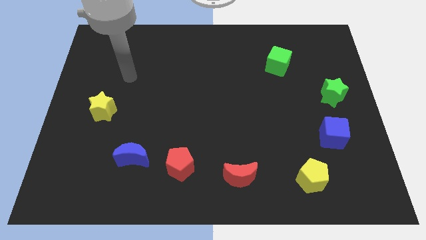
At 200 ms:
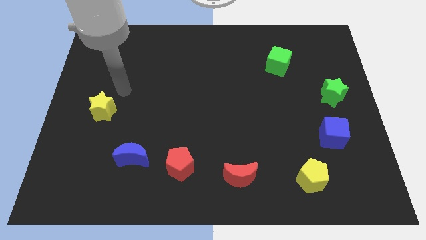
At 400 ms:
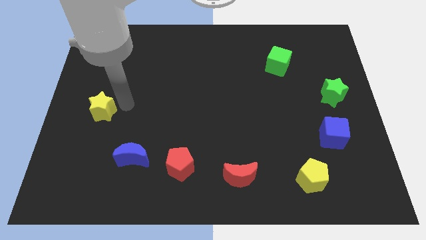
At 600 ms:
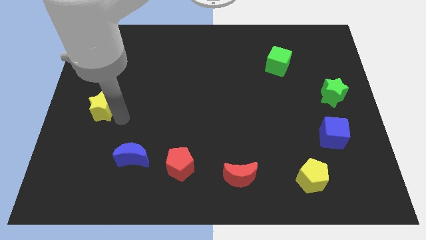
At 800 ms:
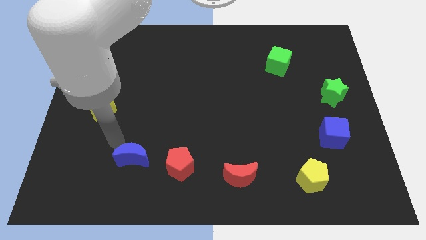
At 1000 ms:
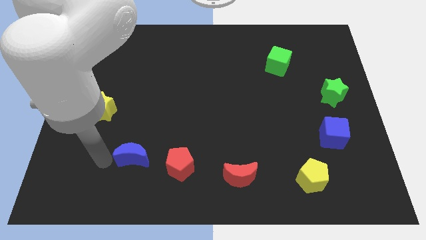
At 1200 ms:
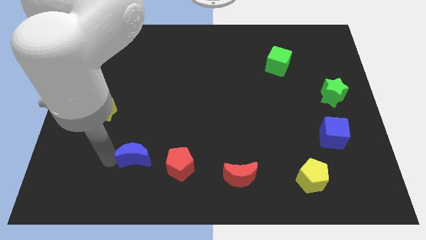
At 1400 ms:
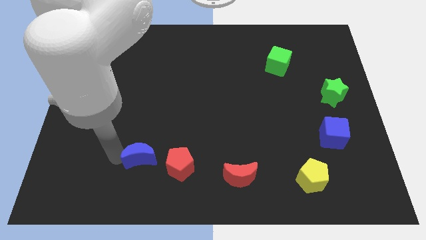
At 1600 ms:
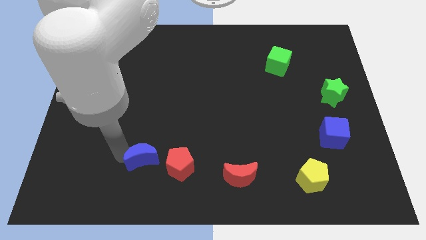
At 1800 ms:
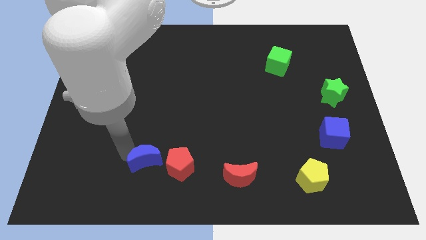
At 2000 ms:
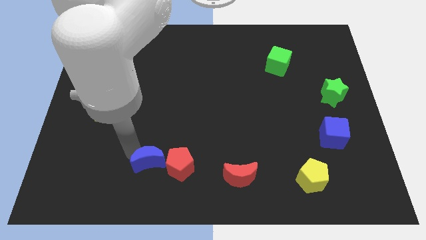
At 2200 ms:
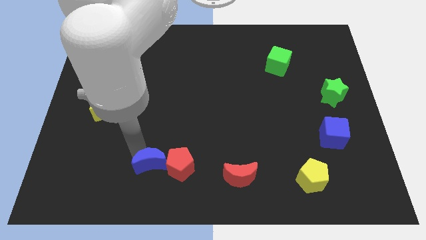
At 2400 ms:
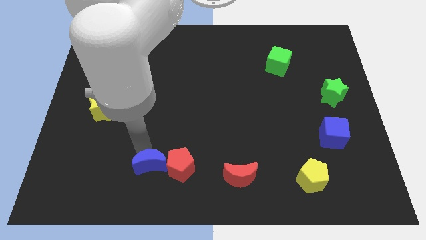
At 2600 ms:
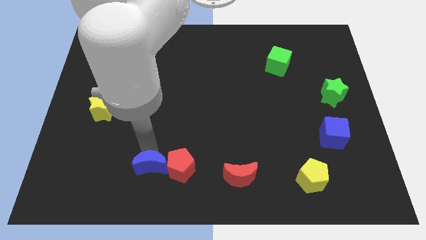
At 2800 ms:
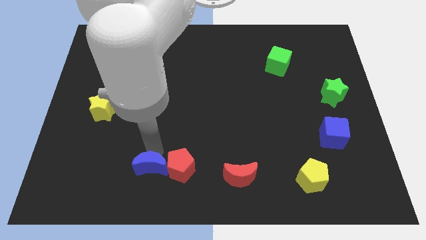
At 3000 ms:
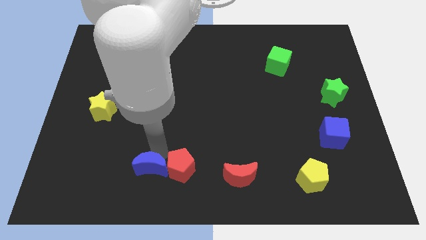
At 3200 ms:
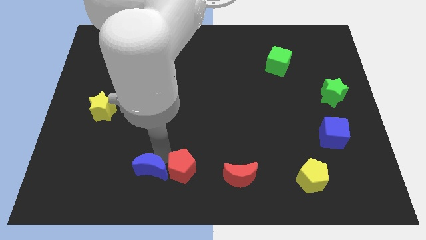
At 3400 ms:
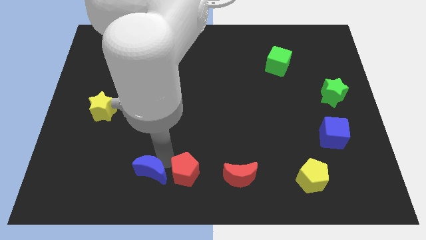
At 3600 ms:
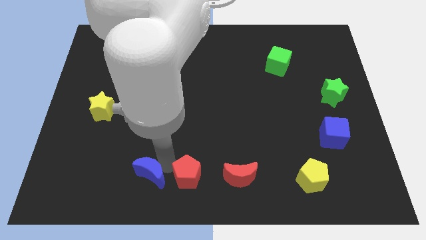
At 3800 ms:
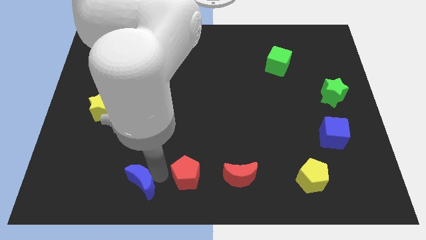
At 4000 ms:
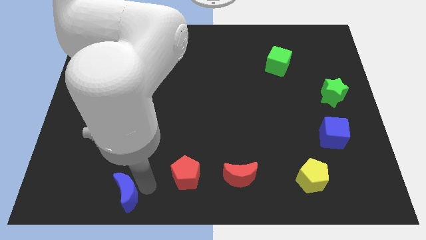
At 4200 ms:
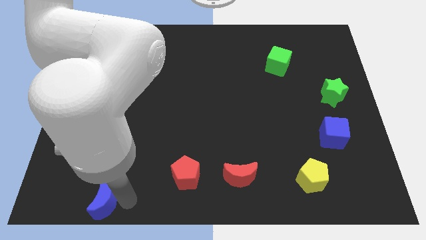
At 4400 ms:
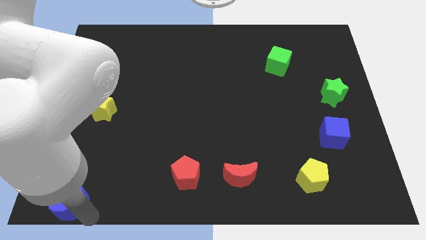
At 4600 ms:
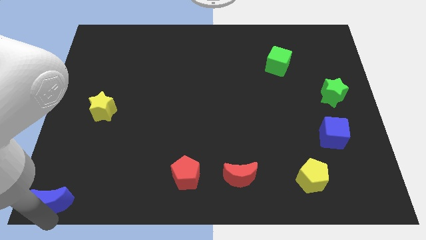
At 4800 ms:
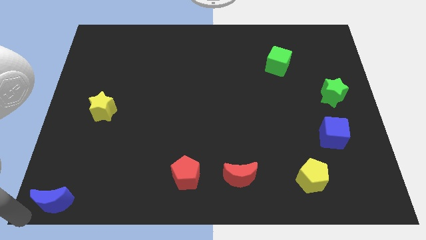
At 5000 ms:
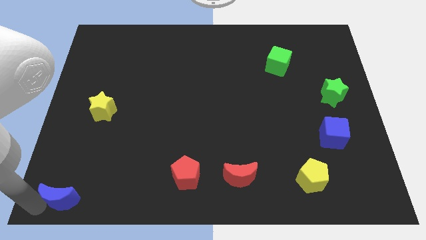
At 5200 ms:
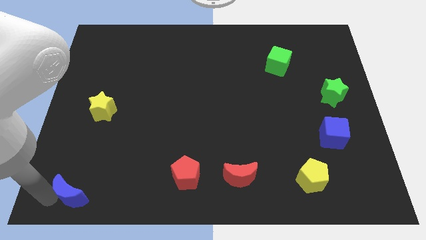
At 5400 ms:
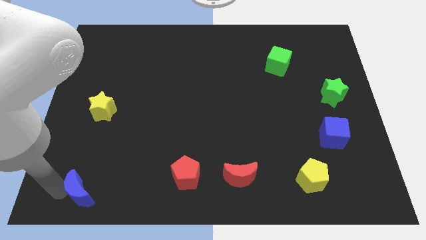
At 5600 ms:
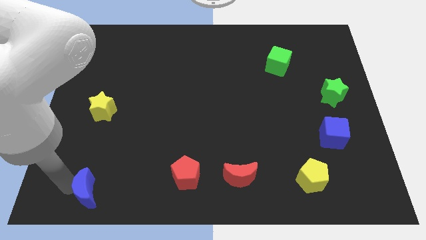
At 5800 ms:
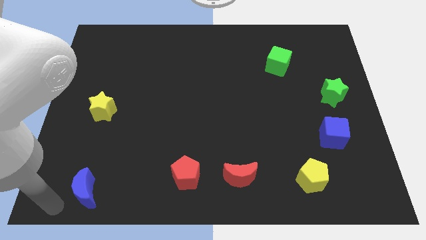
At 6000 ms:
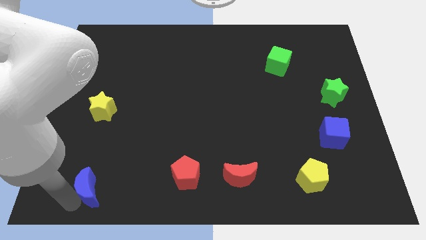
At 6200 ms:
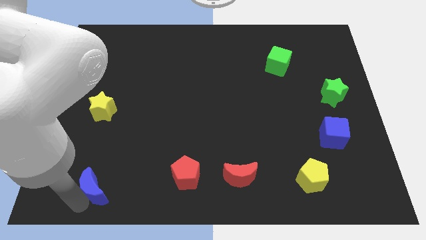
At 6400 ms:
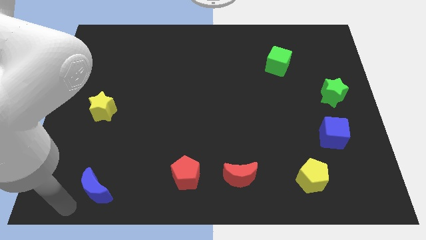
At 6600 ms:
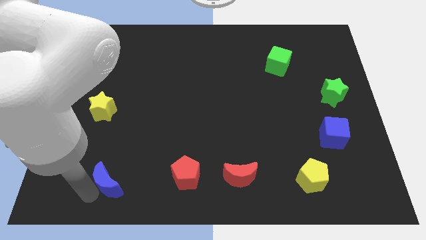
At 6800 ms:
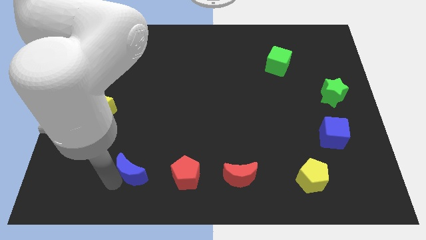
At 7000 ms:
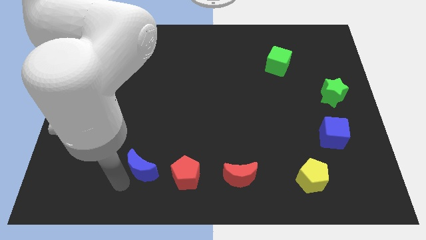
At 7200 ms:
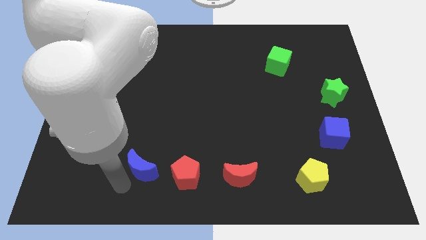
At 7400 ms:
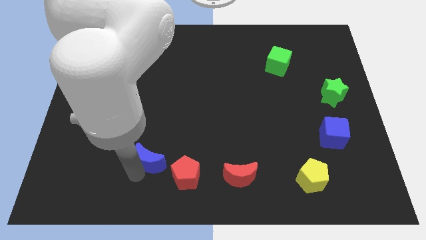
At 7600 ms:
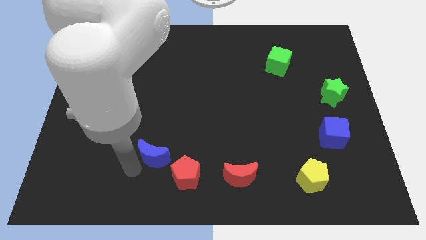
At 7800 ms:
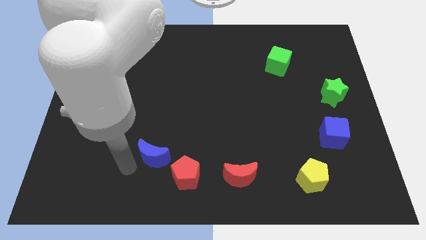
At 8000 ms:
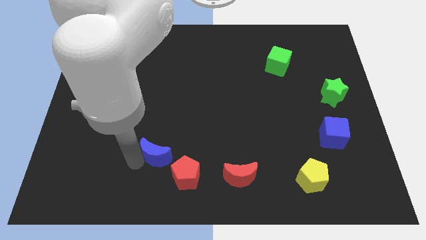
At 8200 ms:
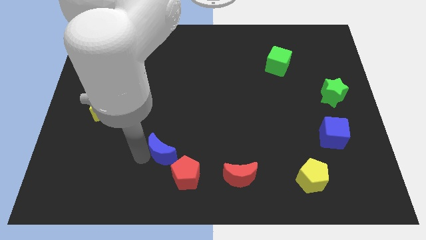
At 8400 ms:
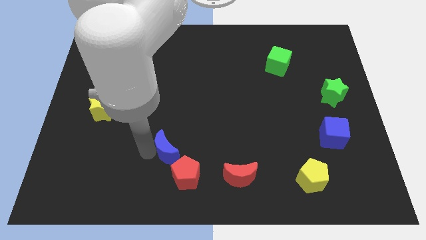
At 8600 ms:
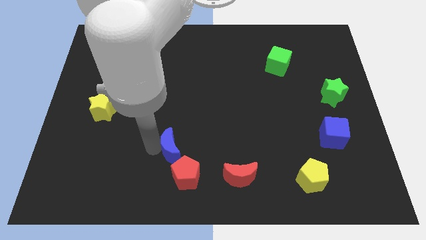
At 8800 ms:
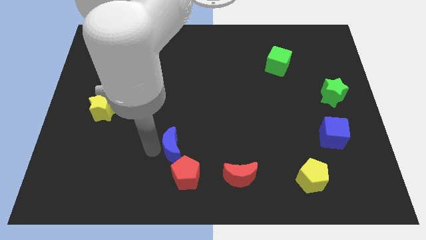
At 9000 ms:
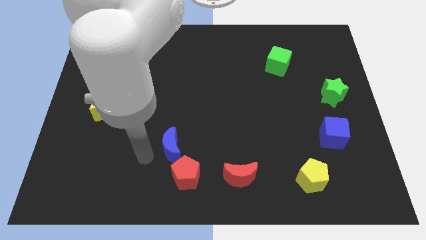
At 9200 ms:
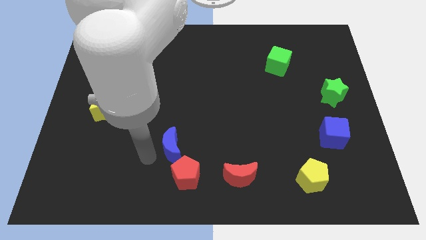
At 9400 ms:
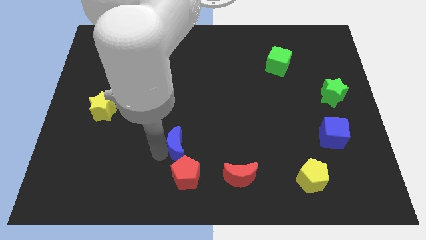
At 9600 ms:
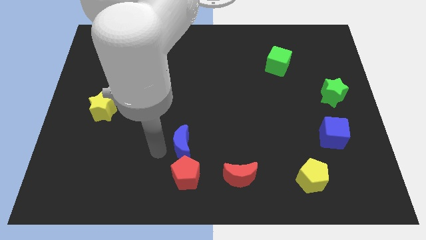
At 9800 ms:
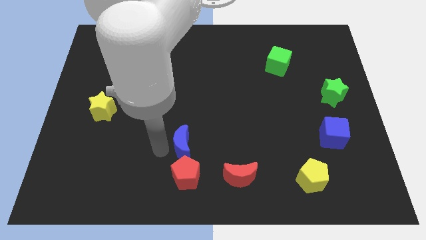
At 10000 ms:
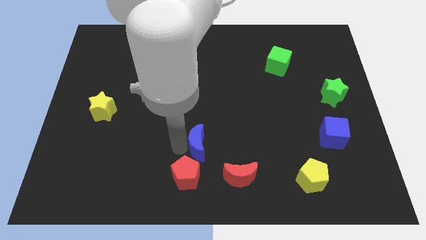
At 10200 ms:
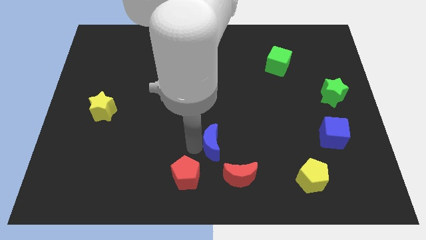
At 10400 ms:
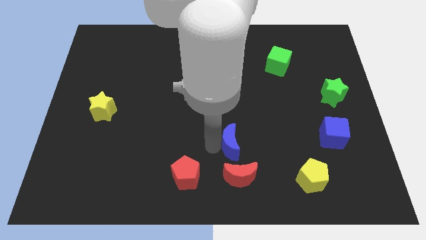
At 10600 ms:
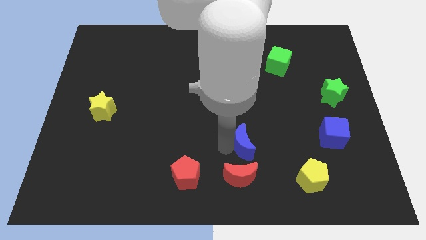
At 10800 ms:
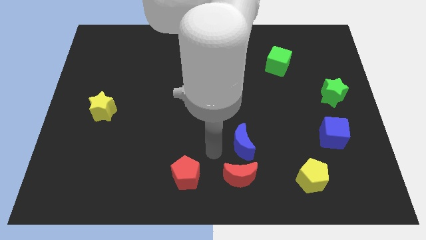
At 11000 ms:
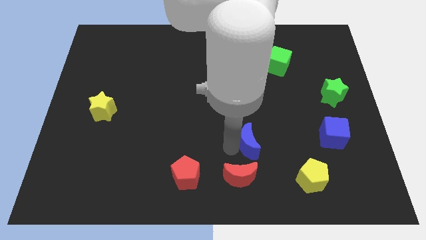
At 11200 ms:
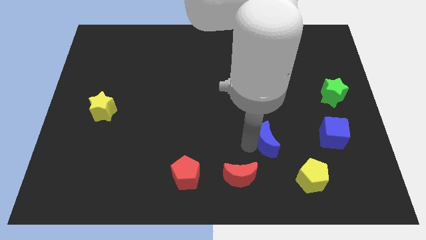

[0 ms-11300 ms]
put the blue moon just left of the blue cube

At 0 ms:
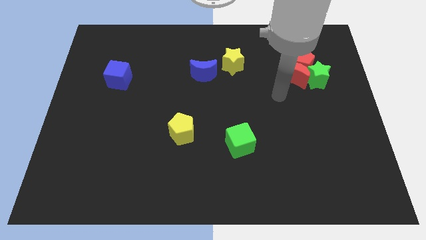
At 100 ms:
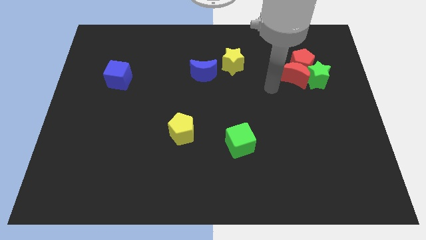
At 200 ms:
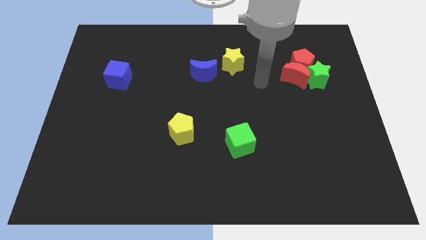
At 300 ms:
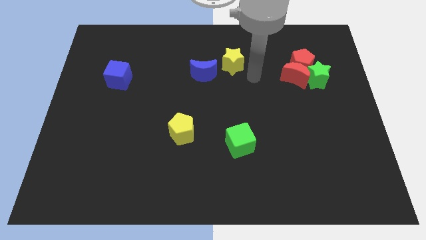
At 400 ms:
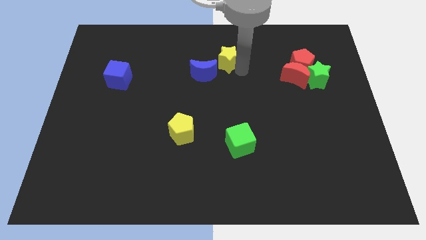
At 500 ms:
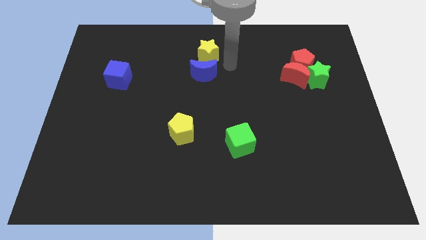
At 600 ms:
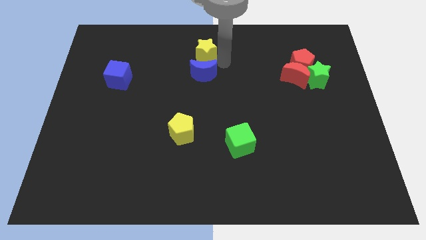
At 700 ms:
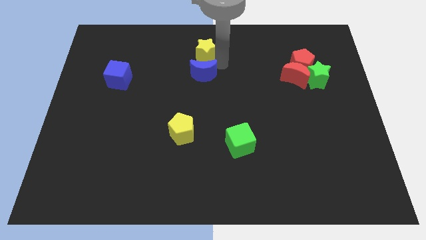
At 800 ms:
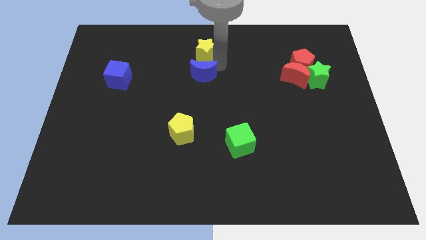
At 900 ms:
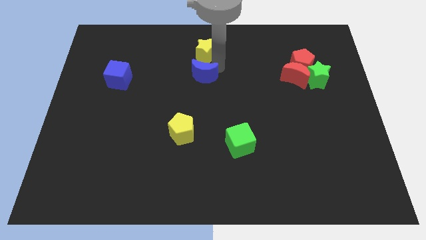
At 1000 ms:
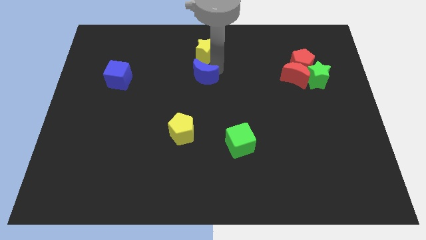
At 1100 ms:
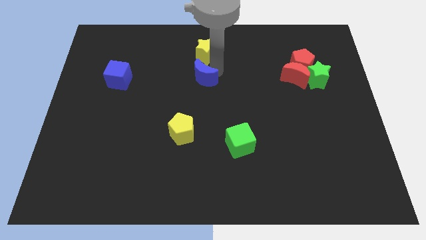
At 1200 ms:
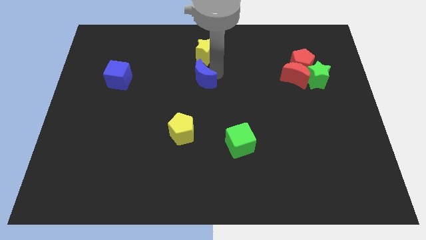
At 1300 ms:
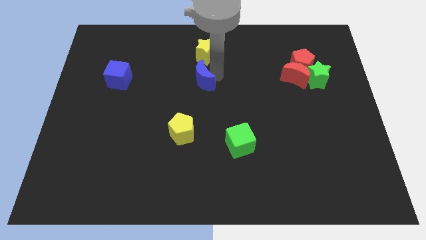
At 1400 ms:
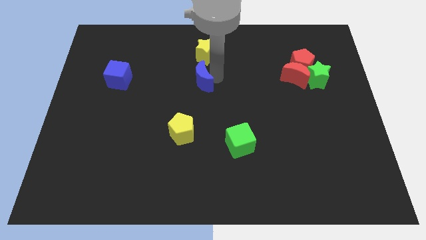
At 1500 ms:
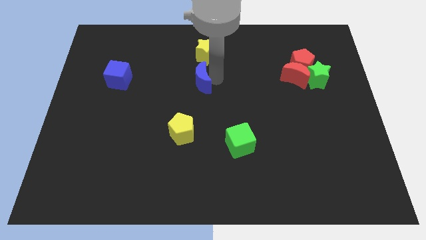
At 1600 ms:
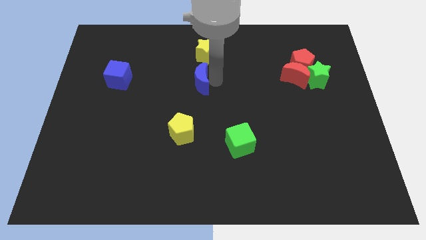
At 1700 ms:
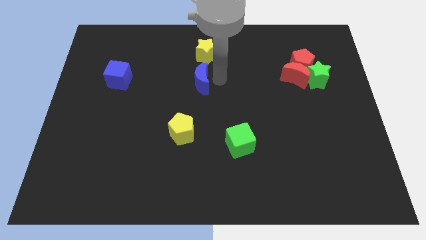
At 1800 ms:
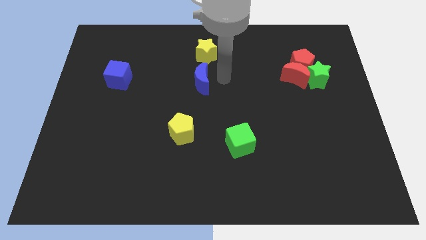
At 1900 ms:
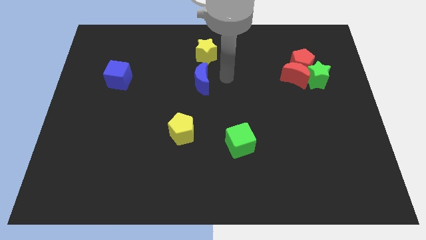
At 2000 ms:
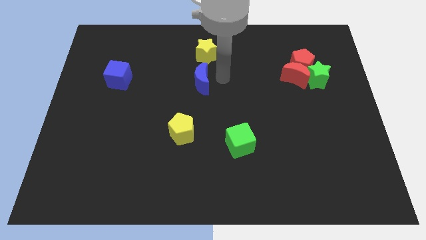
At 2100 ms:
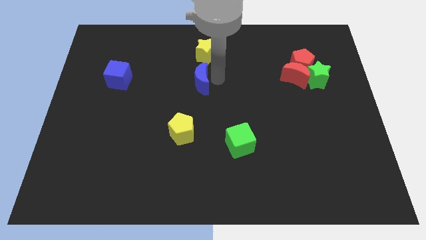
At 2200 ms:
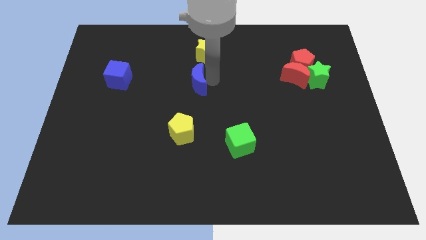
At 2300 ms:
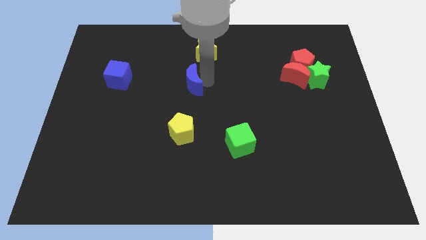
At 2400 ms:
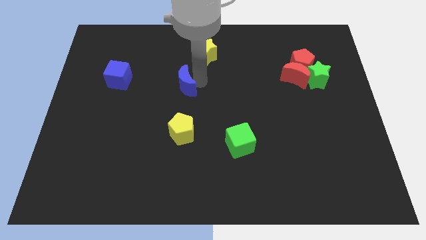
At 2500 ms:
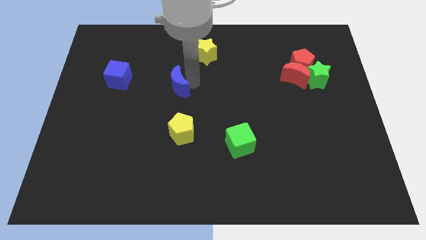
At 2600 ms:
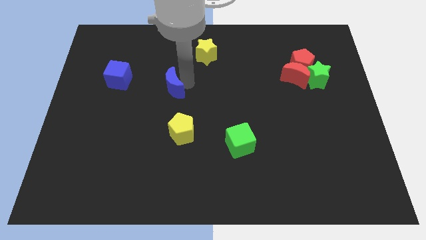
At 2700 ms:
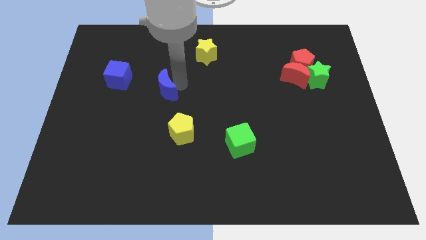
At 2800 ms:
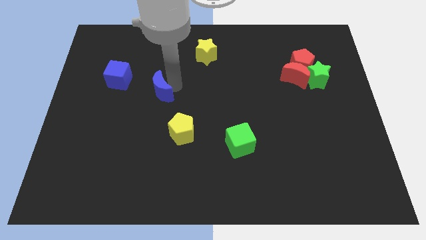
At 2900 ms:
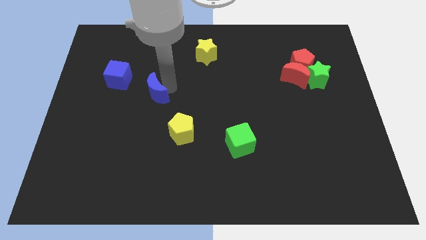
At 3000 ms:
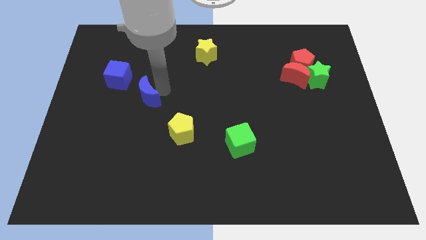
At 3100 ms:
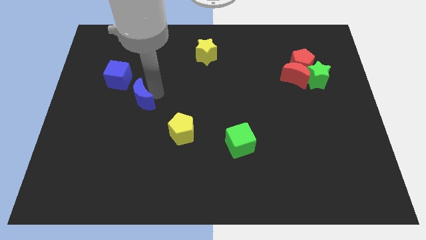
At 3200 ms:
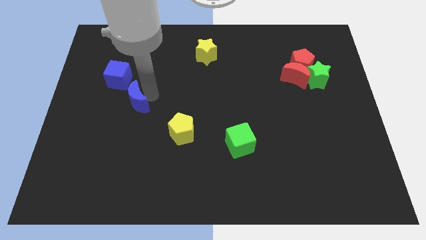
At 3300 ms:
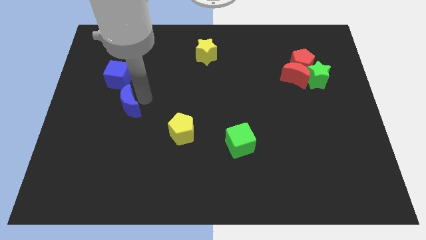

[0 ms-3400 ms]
move the blue moon to the bottom of the blue cube
